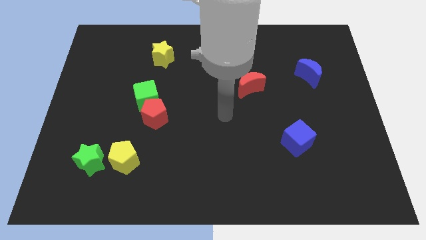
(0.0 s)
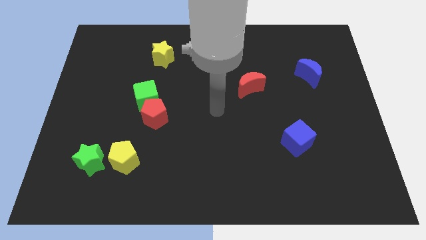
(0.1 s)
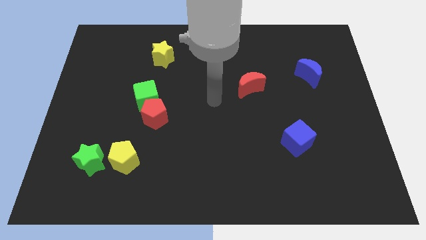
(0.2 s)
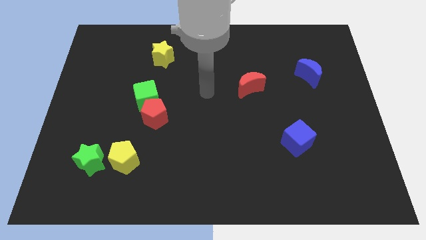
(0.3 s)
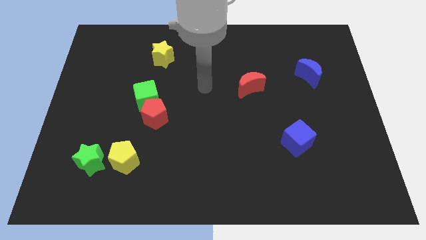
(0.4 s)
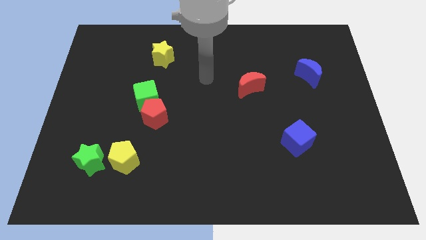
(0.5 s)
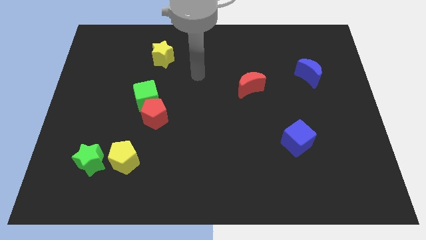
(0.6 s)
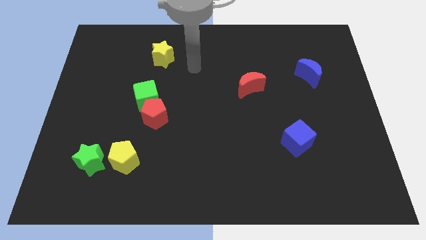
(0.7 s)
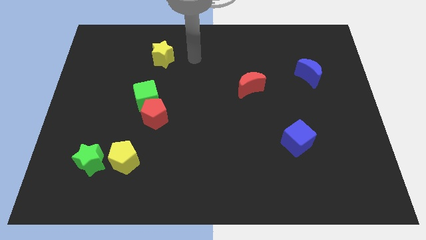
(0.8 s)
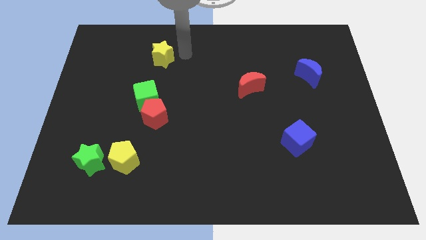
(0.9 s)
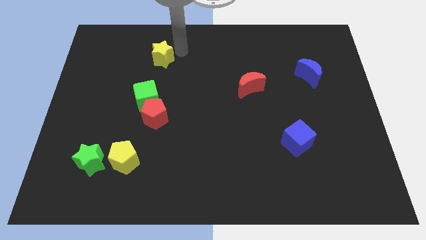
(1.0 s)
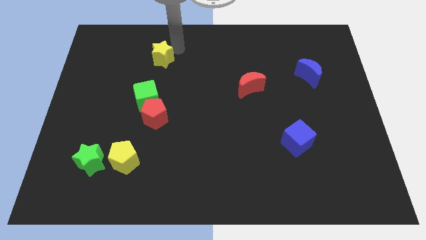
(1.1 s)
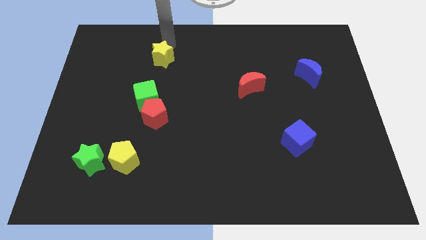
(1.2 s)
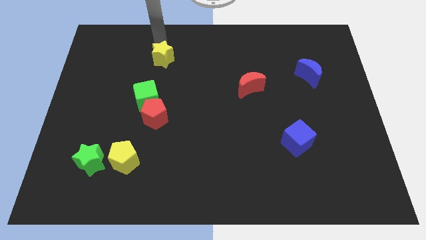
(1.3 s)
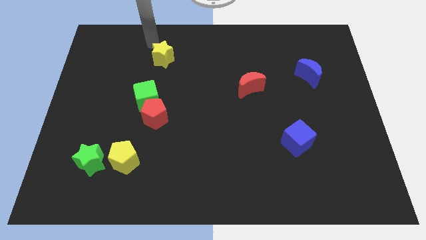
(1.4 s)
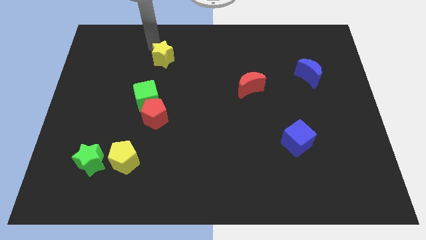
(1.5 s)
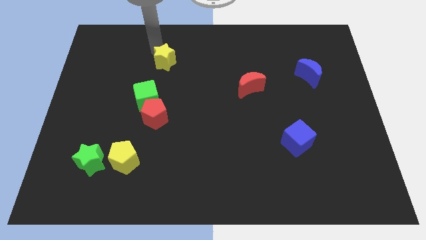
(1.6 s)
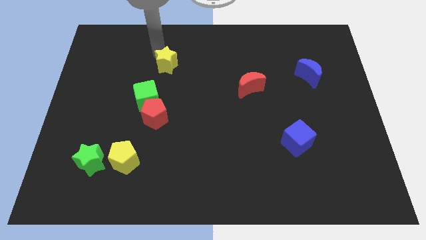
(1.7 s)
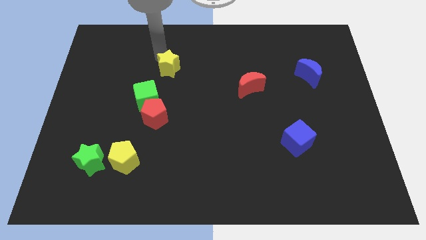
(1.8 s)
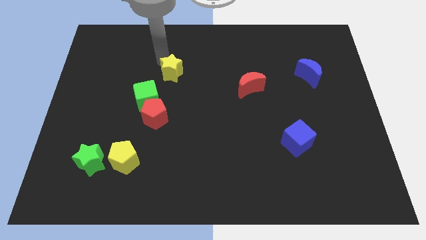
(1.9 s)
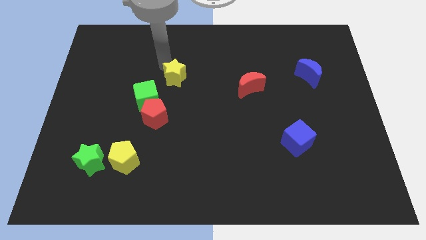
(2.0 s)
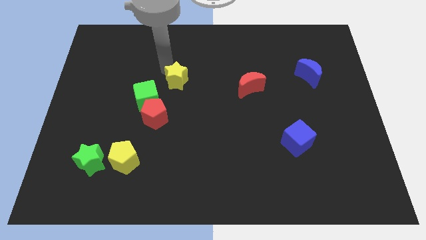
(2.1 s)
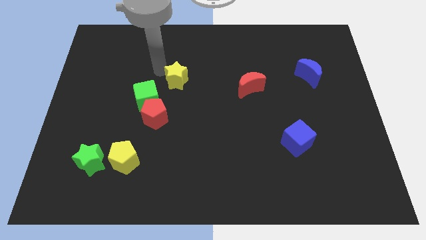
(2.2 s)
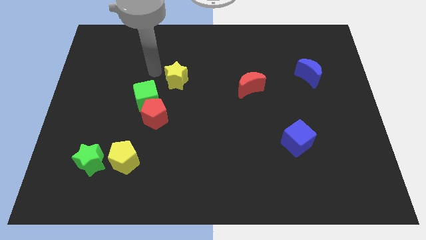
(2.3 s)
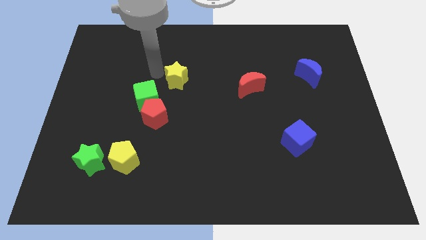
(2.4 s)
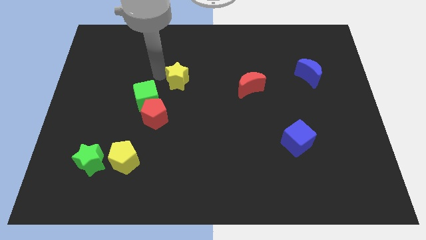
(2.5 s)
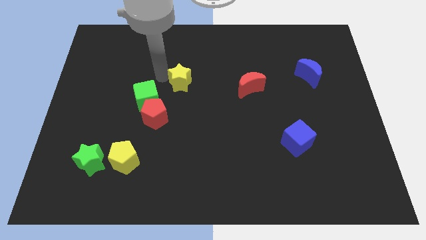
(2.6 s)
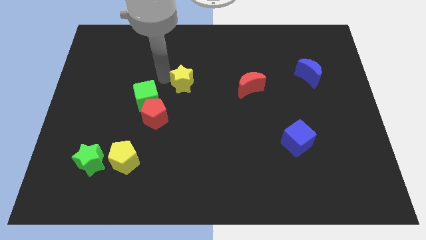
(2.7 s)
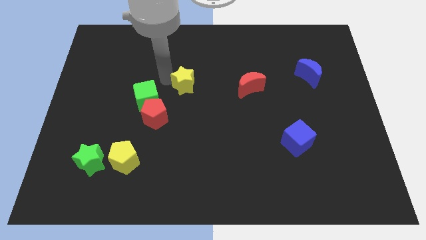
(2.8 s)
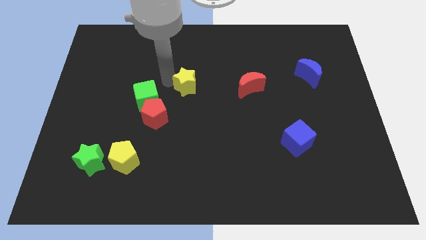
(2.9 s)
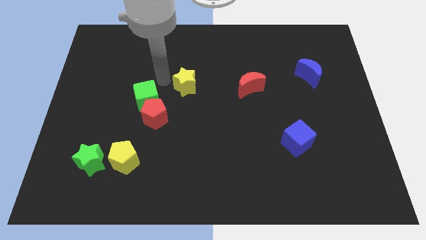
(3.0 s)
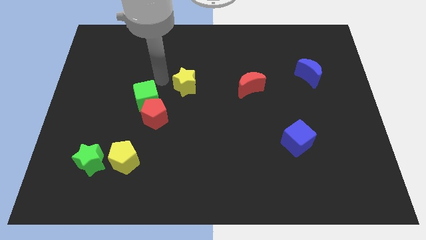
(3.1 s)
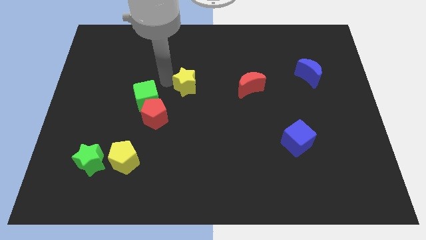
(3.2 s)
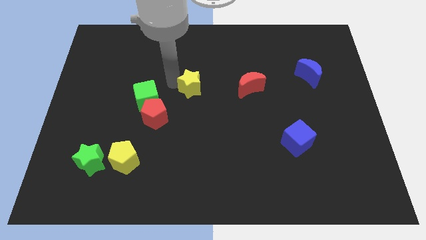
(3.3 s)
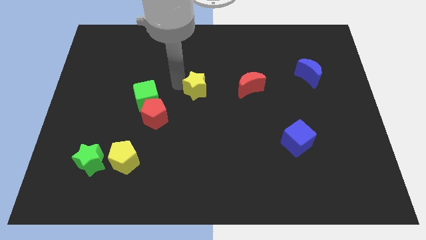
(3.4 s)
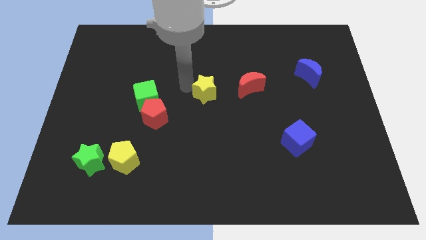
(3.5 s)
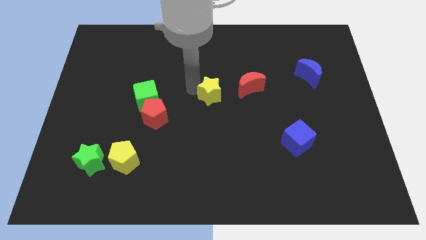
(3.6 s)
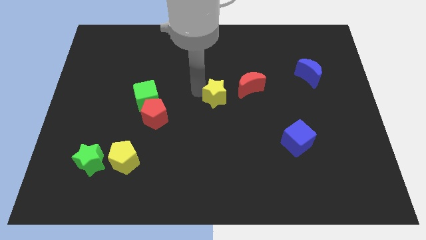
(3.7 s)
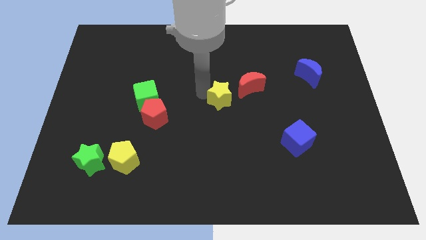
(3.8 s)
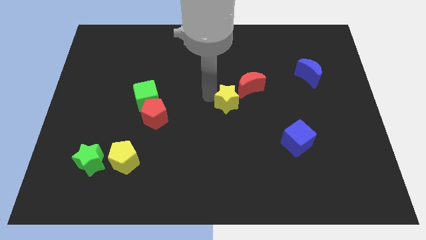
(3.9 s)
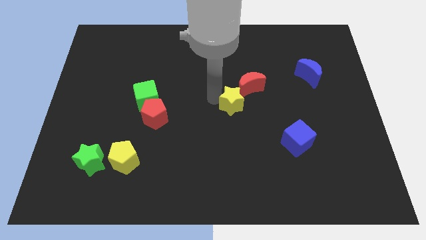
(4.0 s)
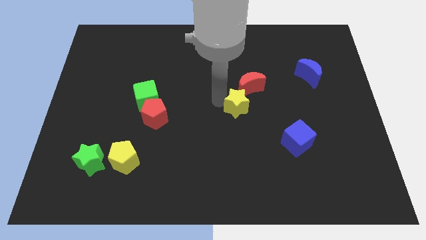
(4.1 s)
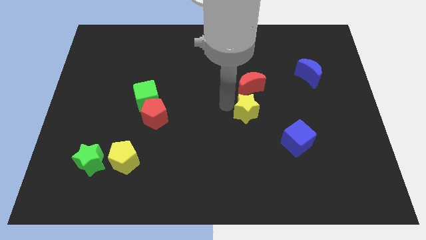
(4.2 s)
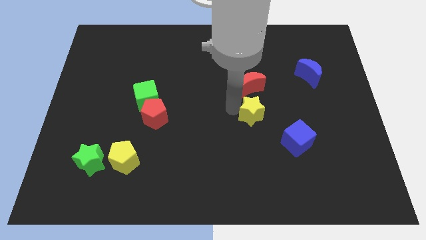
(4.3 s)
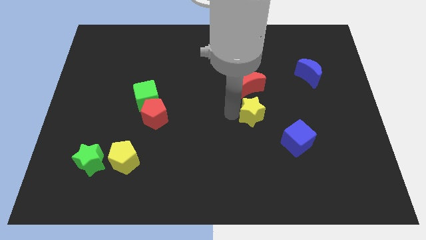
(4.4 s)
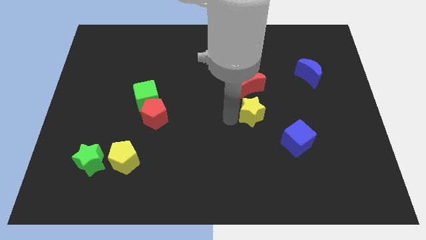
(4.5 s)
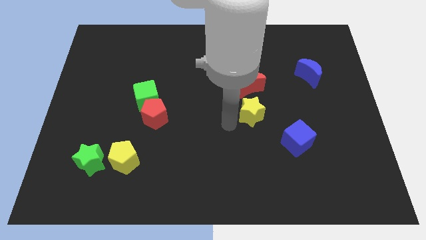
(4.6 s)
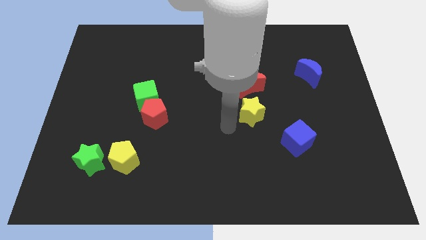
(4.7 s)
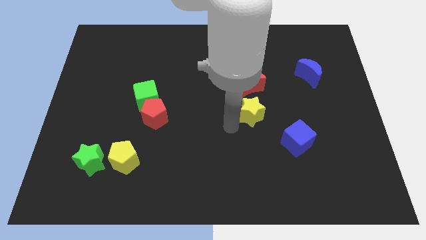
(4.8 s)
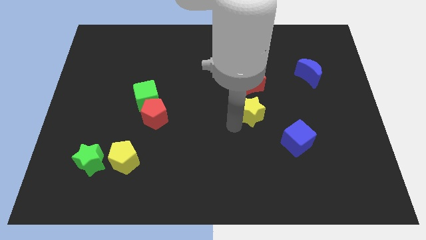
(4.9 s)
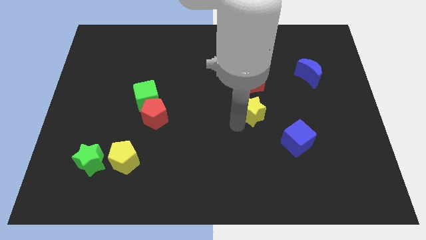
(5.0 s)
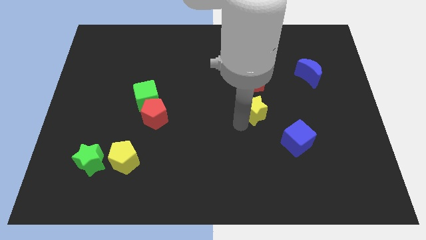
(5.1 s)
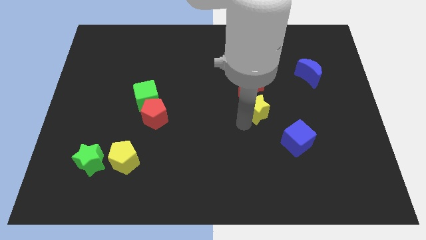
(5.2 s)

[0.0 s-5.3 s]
slide the yellow star to the bottom right side of the red moon

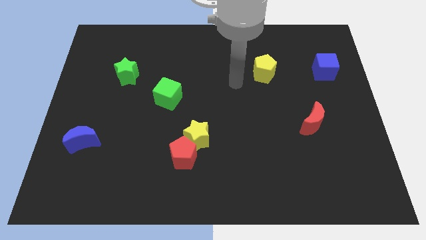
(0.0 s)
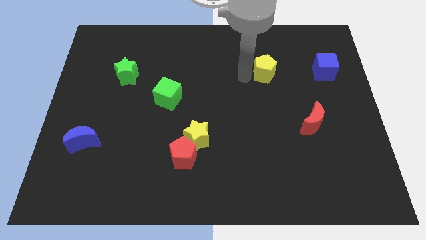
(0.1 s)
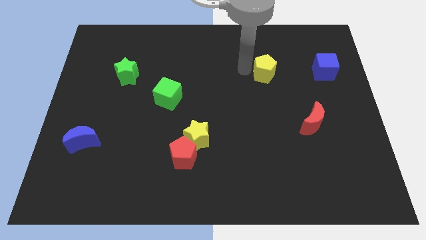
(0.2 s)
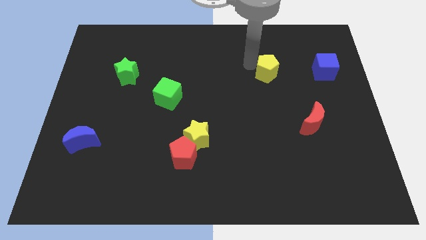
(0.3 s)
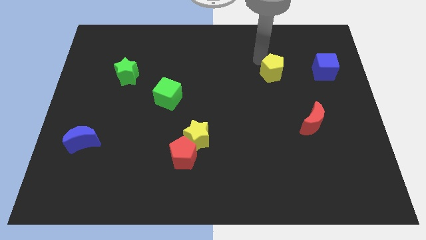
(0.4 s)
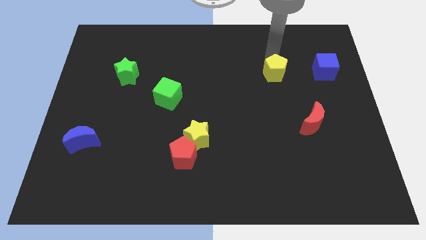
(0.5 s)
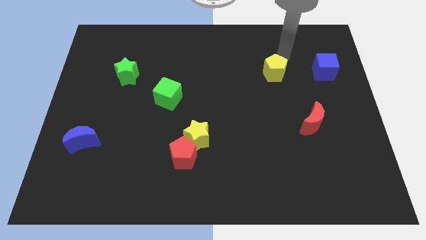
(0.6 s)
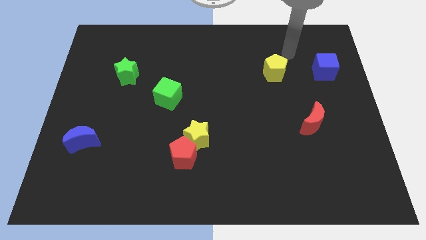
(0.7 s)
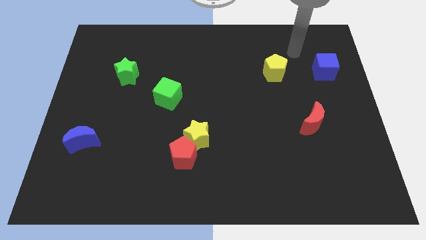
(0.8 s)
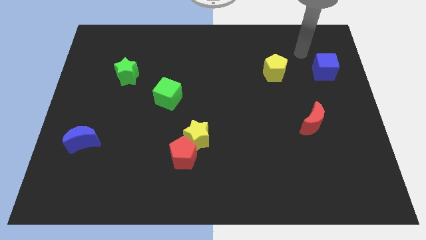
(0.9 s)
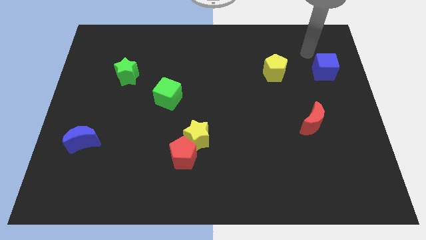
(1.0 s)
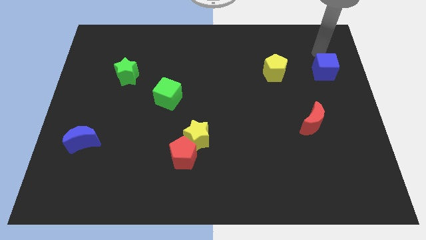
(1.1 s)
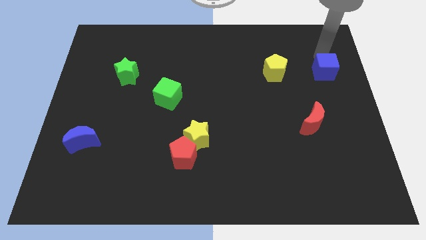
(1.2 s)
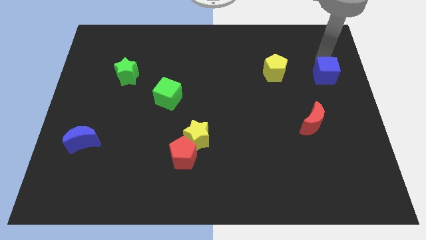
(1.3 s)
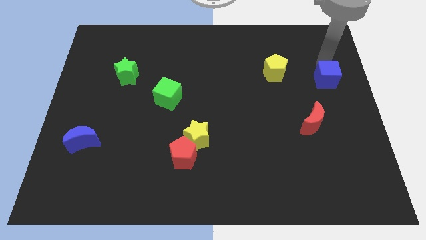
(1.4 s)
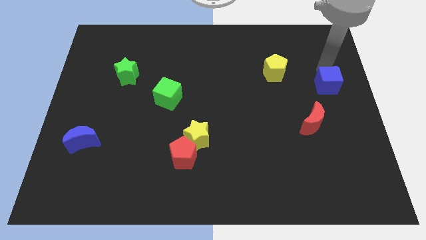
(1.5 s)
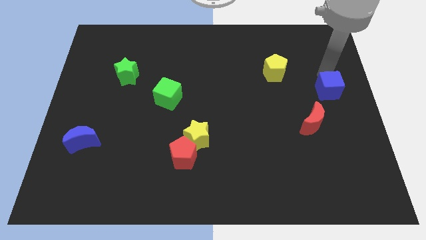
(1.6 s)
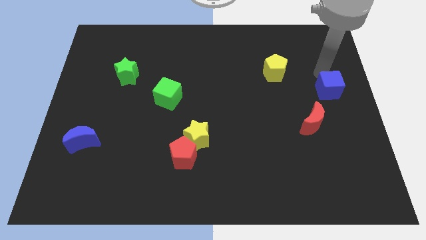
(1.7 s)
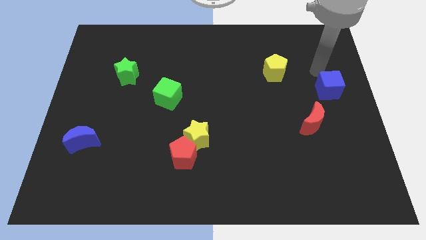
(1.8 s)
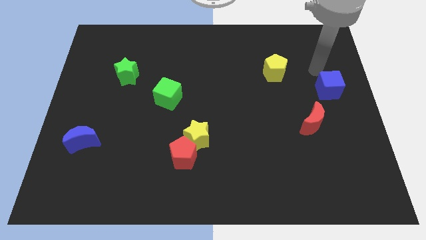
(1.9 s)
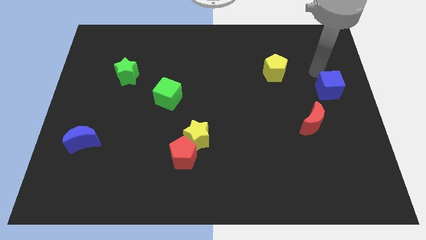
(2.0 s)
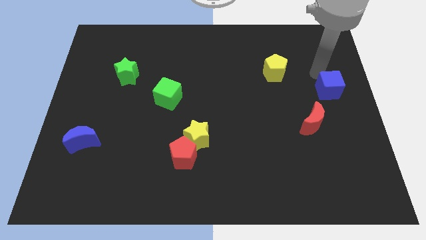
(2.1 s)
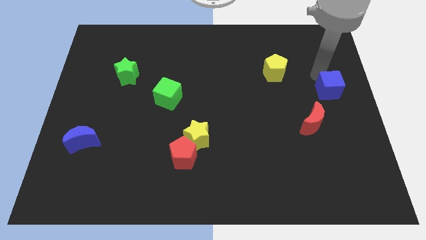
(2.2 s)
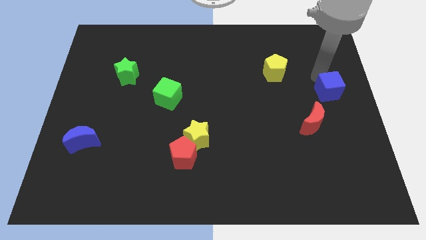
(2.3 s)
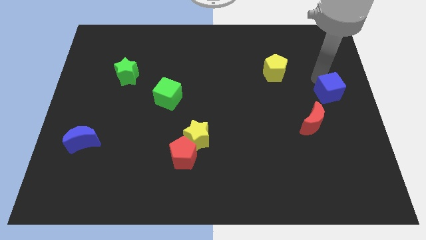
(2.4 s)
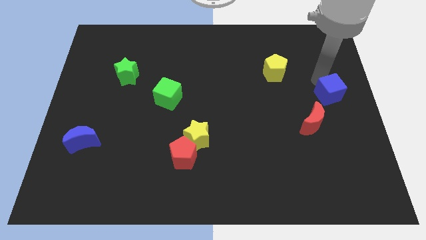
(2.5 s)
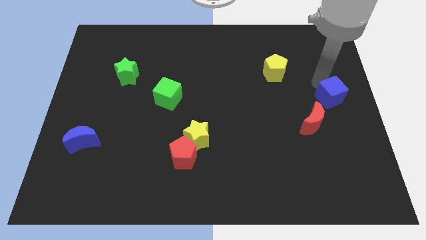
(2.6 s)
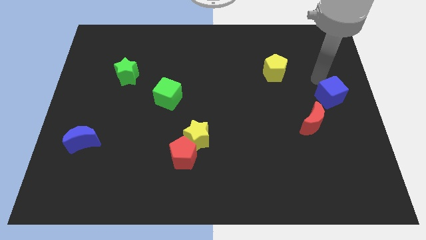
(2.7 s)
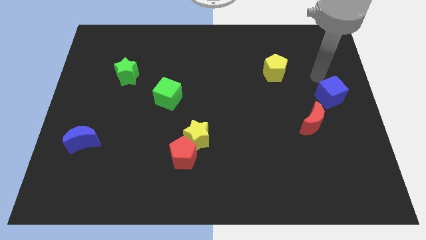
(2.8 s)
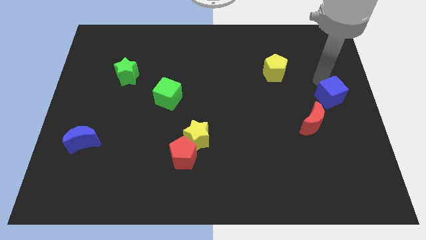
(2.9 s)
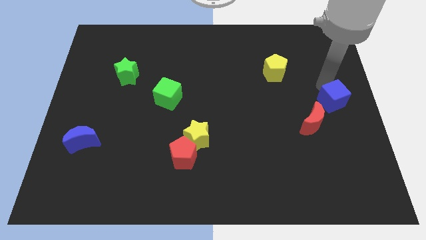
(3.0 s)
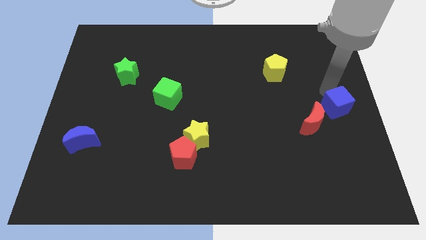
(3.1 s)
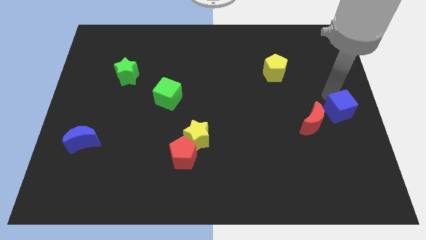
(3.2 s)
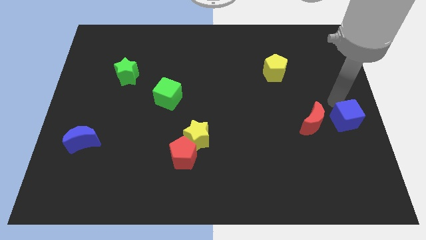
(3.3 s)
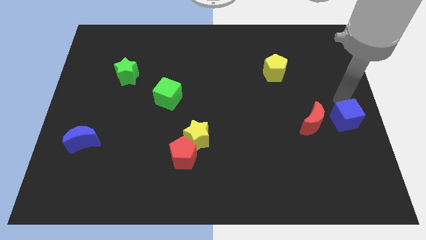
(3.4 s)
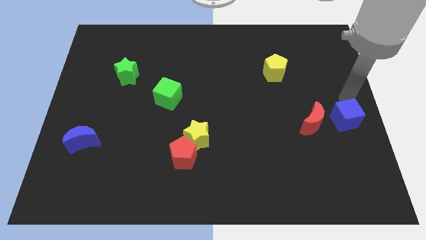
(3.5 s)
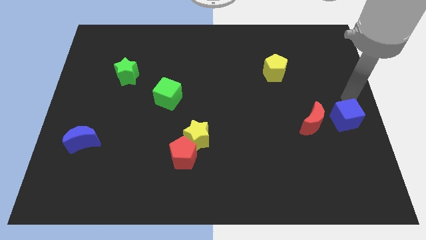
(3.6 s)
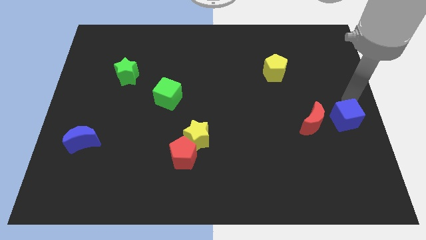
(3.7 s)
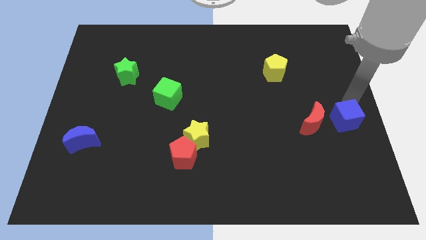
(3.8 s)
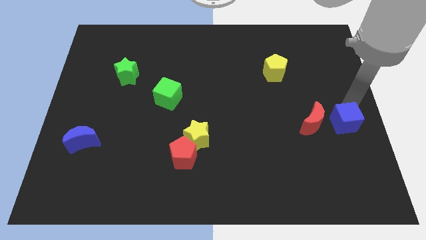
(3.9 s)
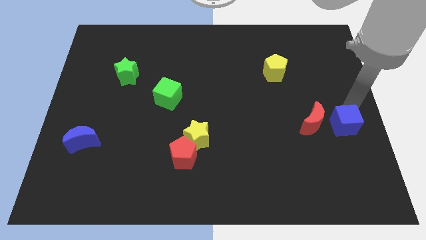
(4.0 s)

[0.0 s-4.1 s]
move the blue cube to the bottom right side of the red moon
